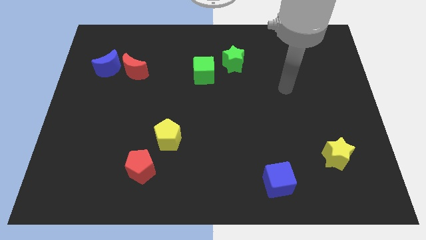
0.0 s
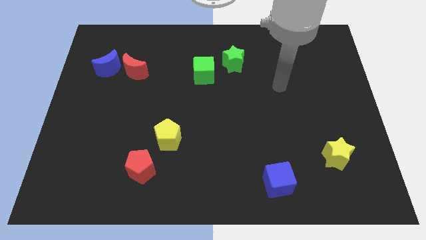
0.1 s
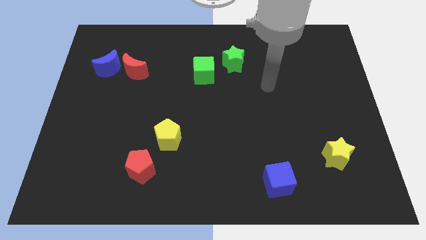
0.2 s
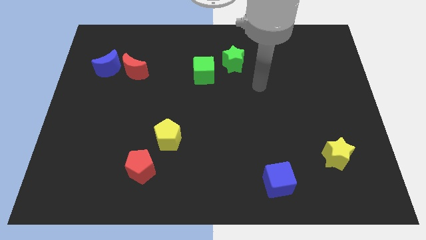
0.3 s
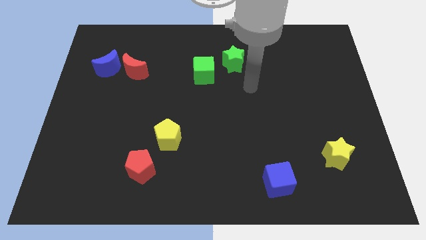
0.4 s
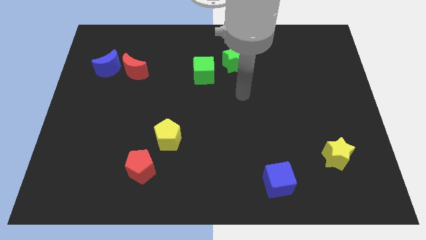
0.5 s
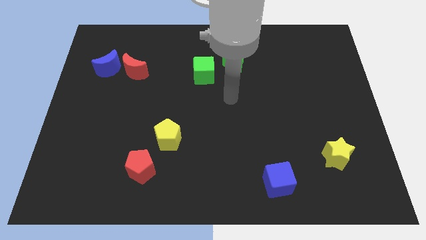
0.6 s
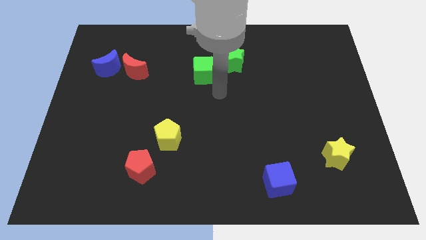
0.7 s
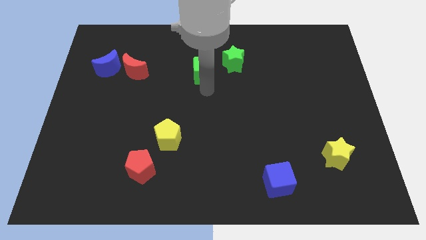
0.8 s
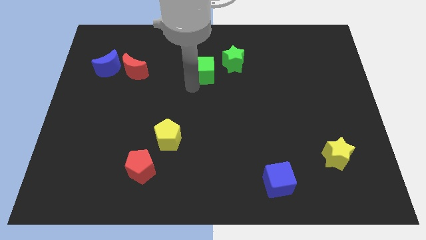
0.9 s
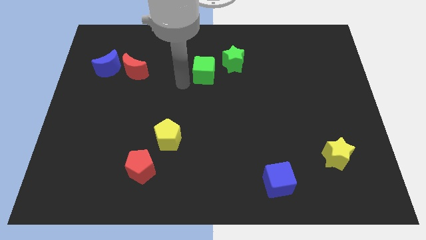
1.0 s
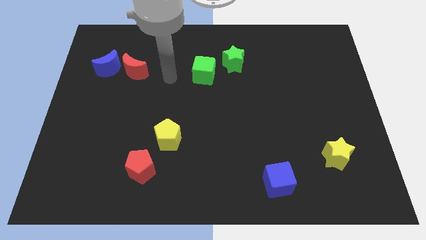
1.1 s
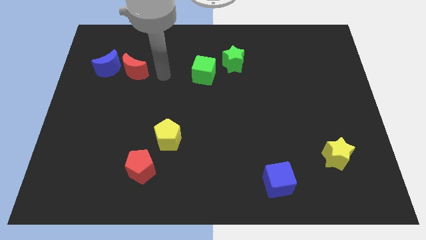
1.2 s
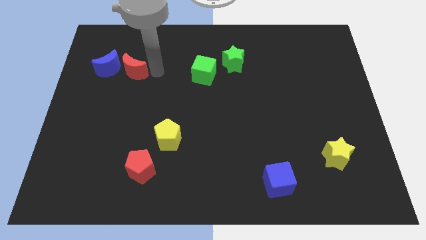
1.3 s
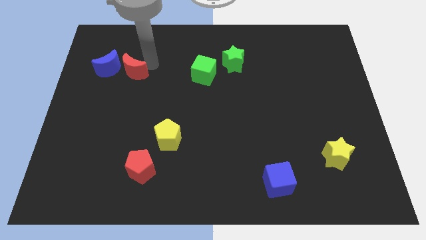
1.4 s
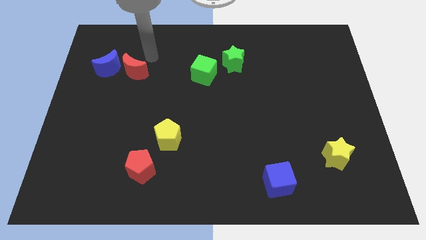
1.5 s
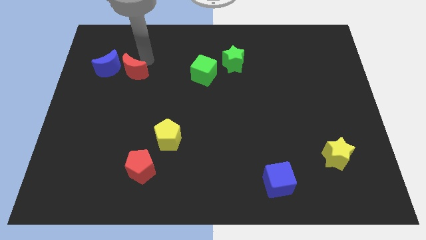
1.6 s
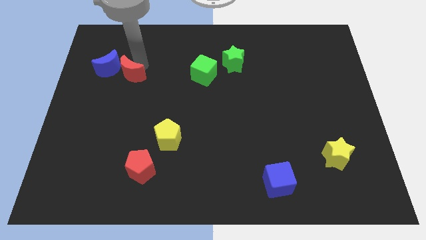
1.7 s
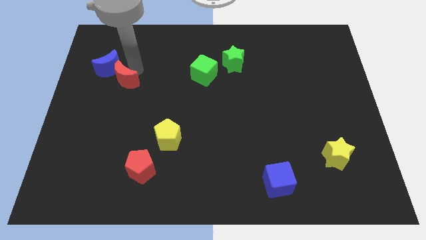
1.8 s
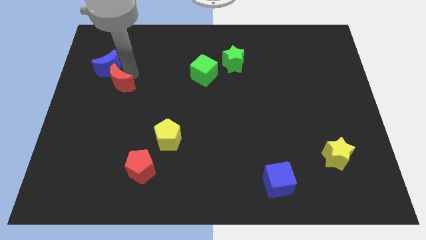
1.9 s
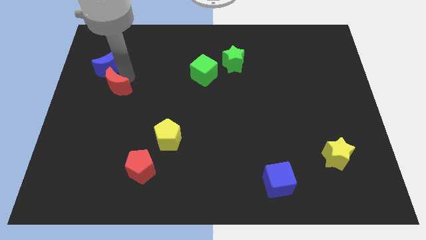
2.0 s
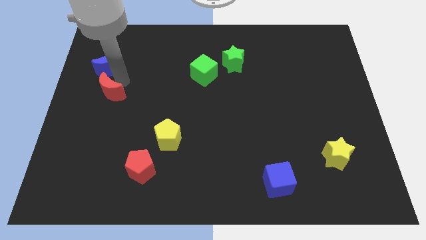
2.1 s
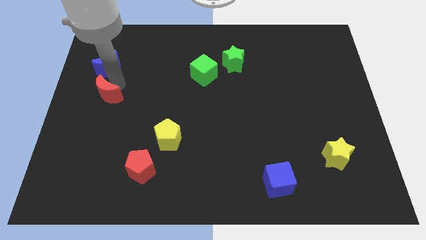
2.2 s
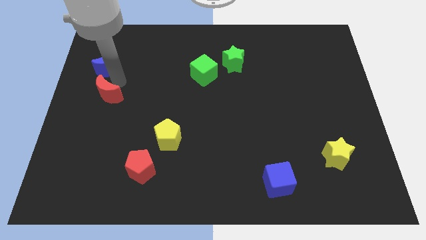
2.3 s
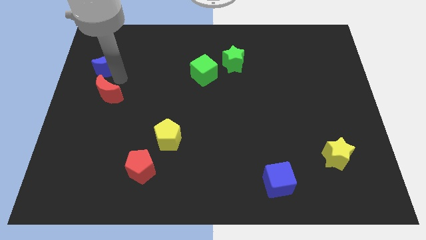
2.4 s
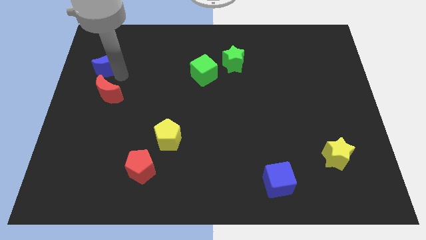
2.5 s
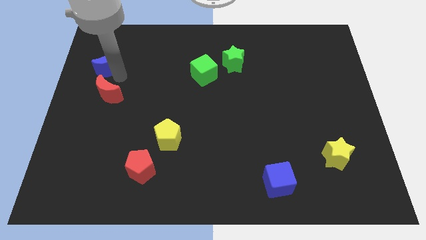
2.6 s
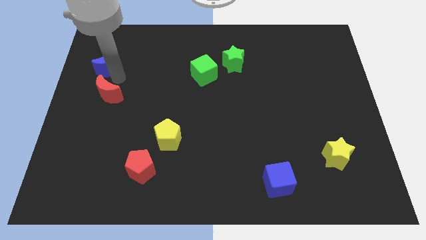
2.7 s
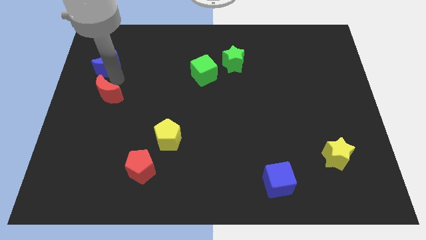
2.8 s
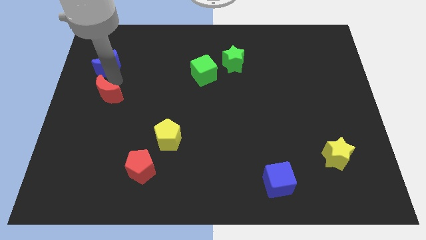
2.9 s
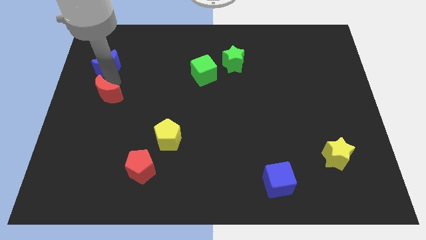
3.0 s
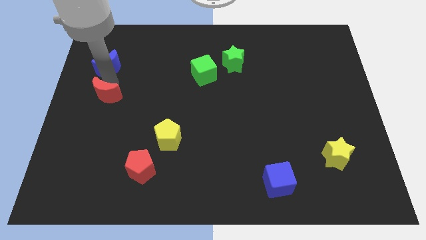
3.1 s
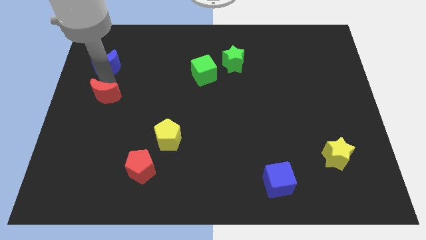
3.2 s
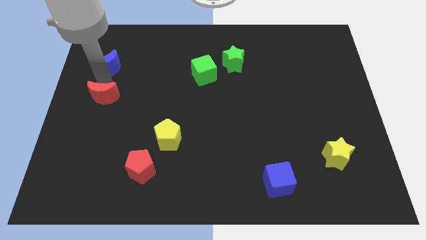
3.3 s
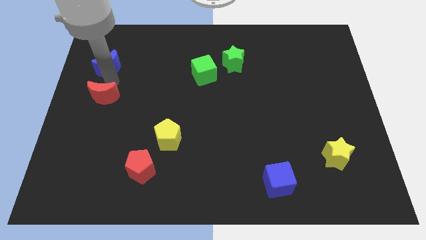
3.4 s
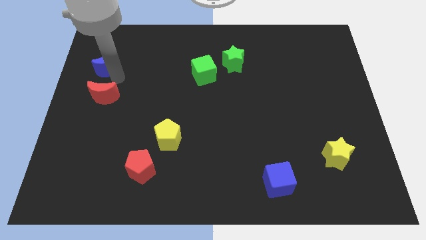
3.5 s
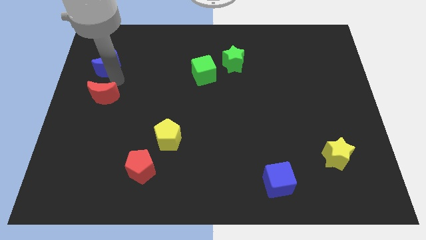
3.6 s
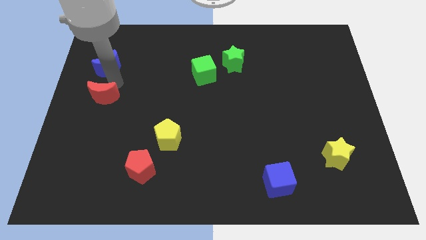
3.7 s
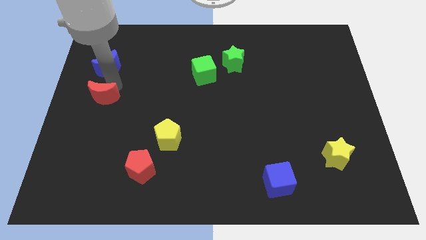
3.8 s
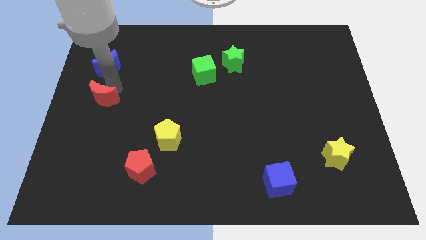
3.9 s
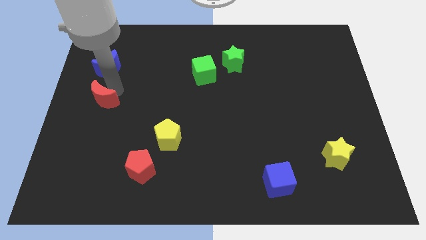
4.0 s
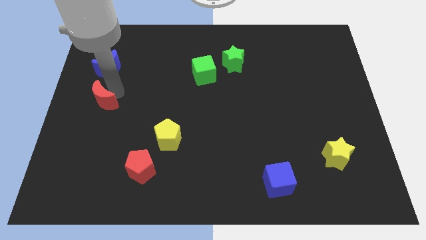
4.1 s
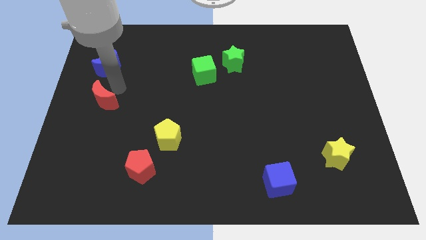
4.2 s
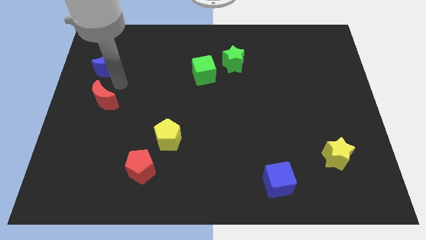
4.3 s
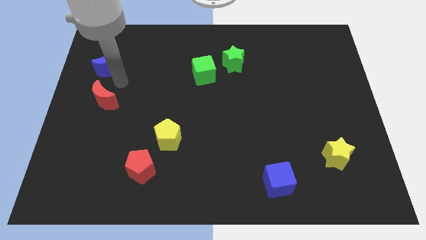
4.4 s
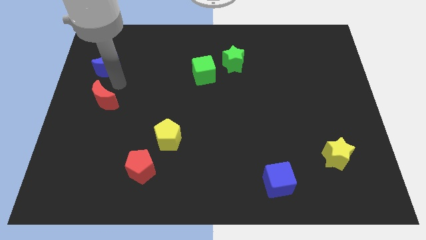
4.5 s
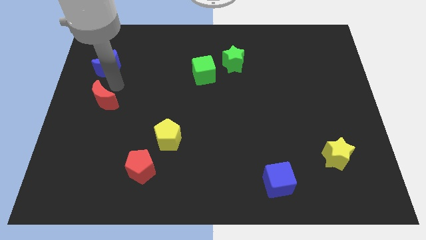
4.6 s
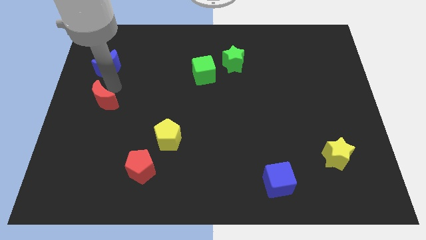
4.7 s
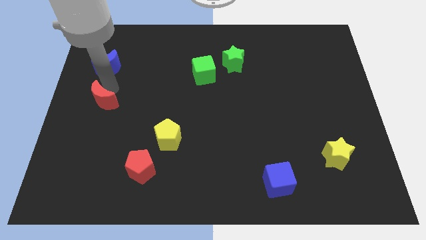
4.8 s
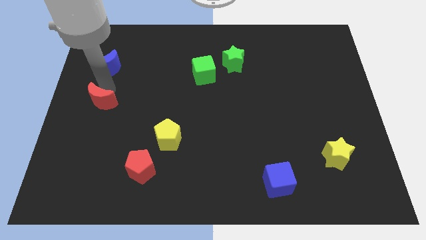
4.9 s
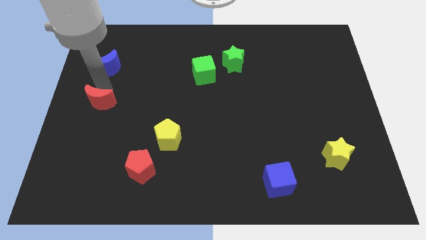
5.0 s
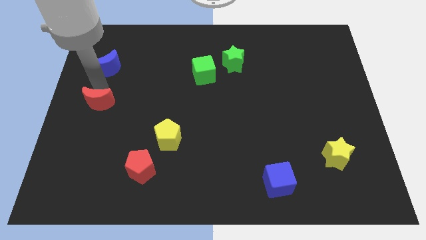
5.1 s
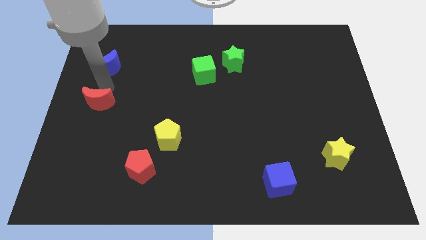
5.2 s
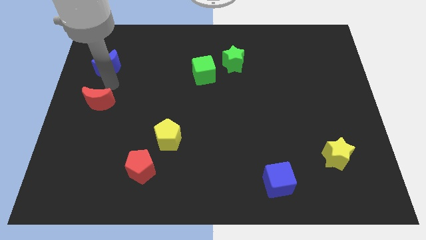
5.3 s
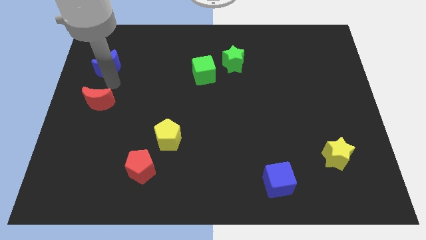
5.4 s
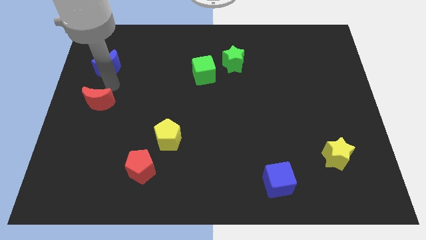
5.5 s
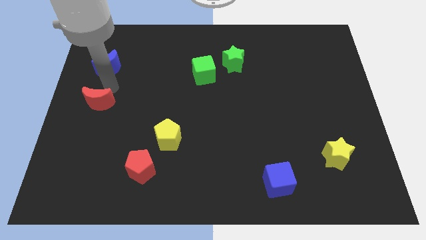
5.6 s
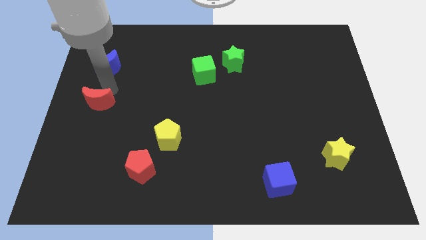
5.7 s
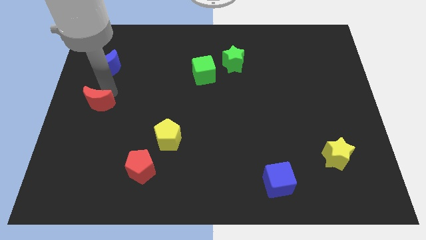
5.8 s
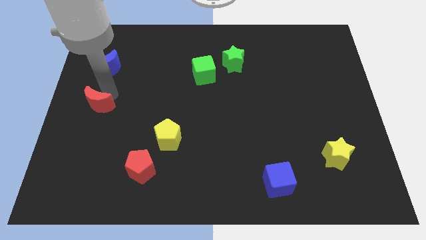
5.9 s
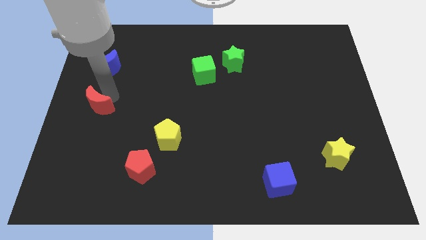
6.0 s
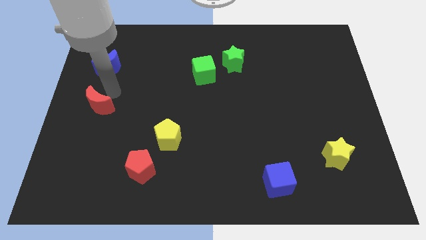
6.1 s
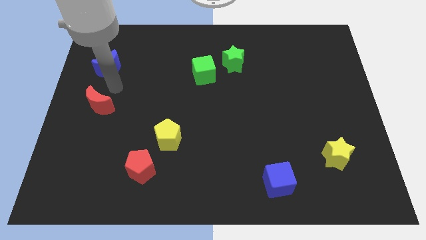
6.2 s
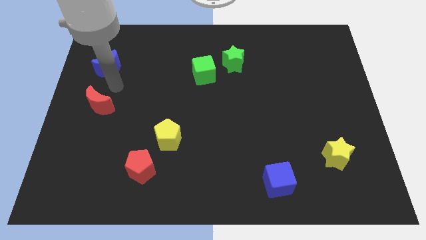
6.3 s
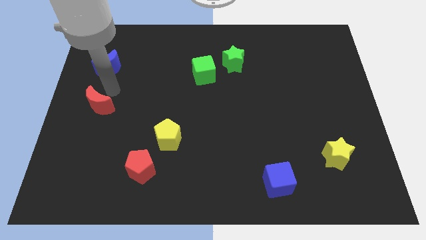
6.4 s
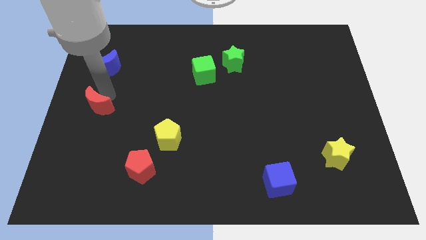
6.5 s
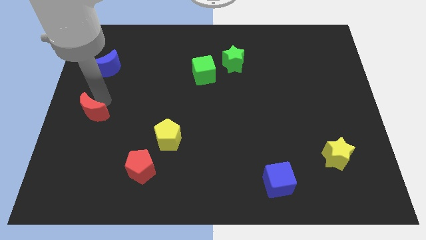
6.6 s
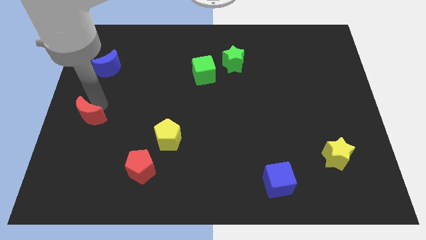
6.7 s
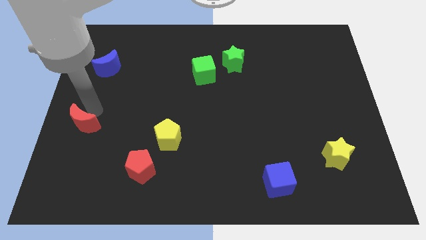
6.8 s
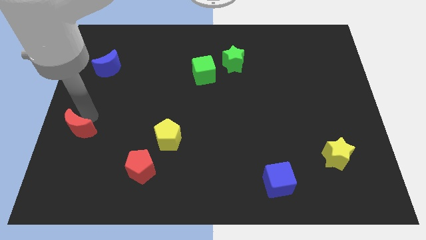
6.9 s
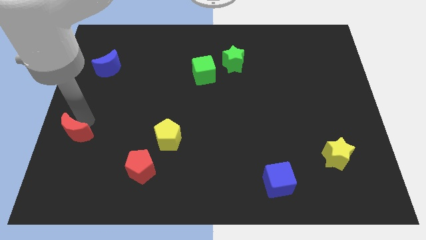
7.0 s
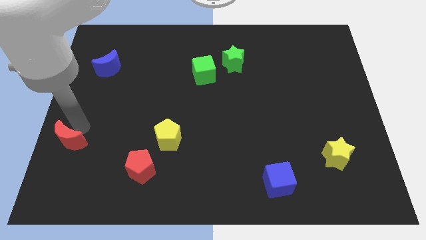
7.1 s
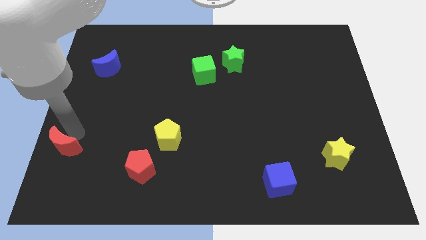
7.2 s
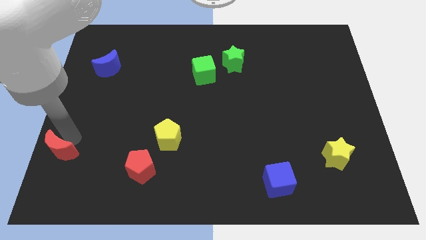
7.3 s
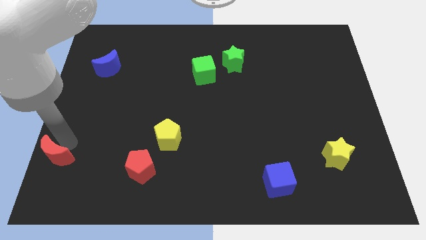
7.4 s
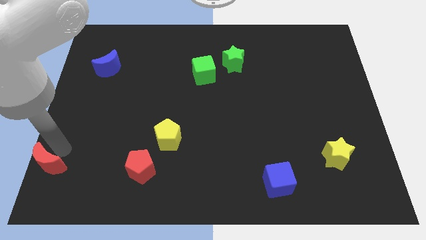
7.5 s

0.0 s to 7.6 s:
push the red moon to the bottom left of the board
